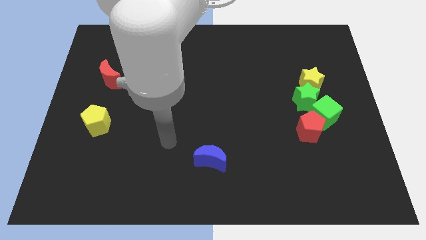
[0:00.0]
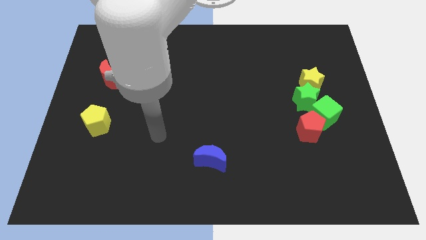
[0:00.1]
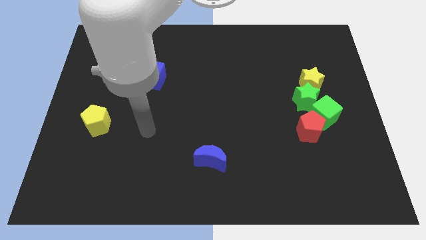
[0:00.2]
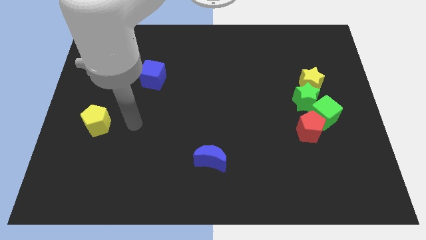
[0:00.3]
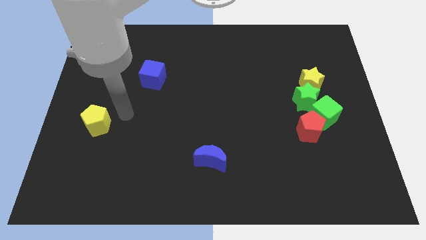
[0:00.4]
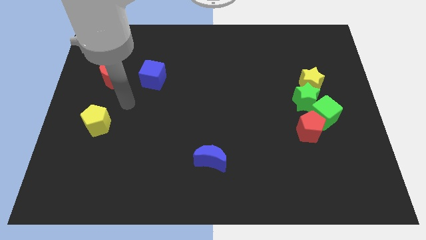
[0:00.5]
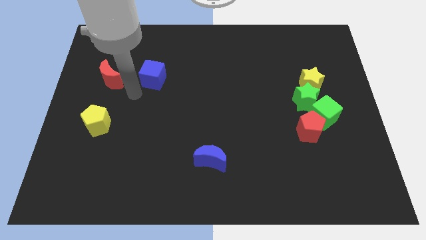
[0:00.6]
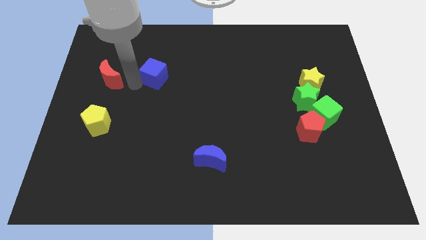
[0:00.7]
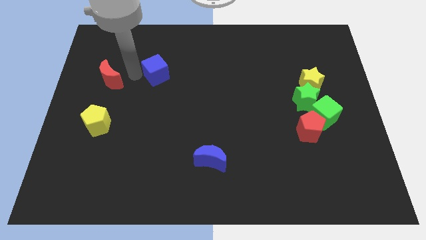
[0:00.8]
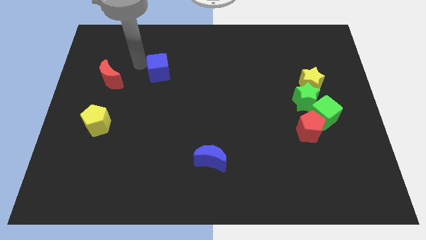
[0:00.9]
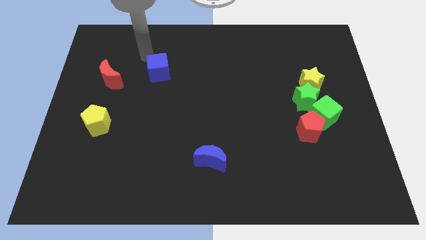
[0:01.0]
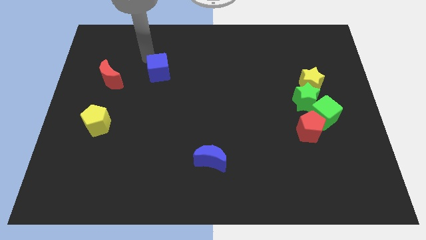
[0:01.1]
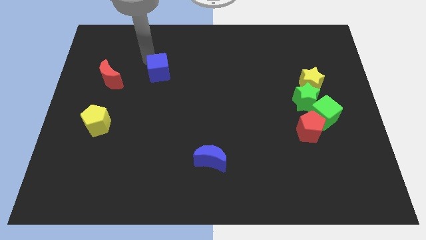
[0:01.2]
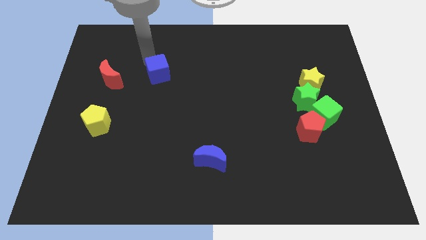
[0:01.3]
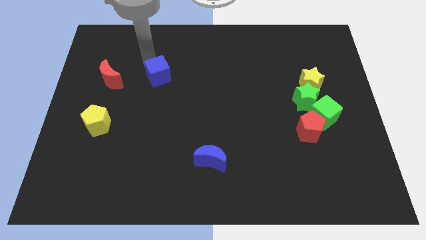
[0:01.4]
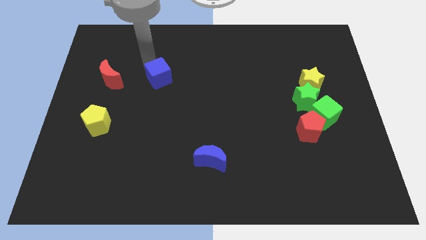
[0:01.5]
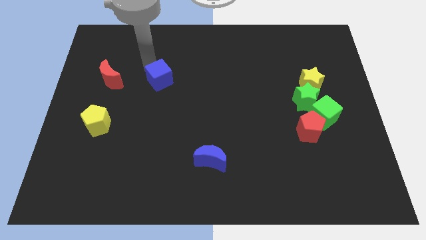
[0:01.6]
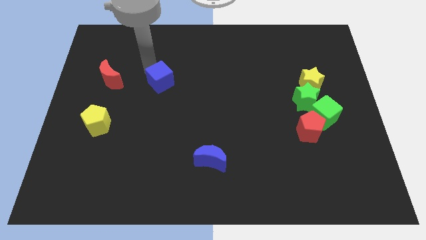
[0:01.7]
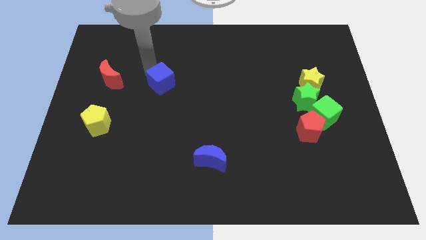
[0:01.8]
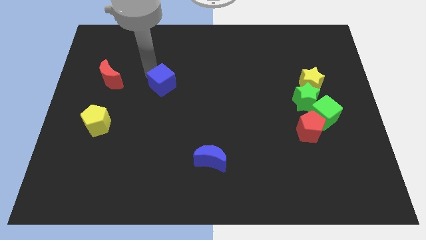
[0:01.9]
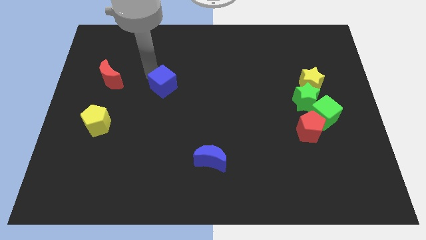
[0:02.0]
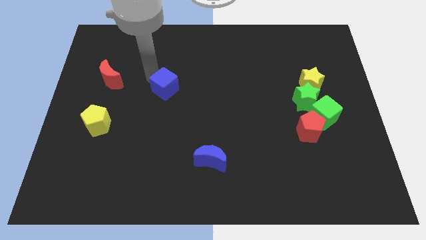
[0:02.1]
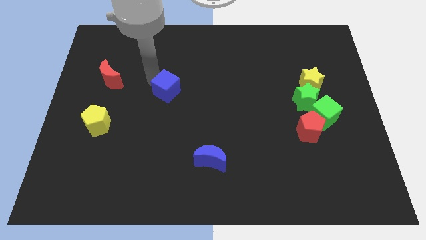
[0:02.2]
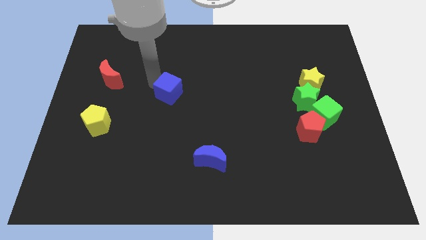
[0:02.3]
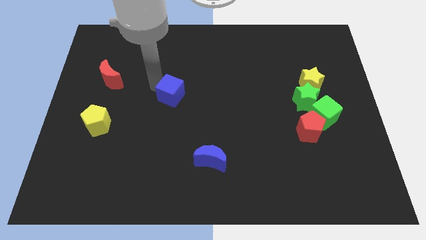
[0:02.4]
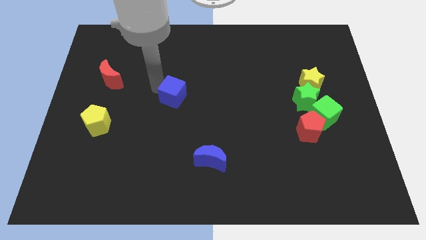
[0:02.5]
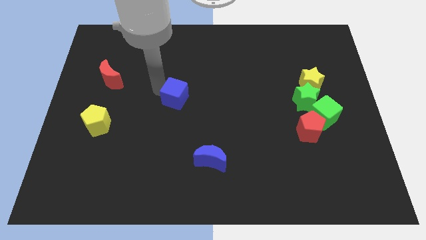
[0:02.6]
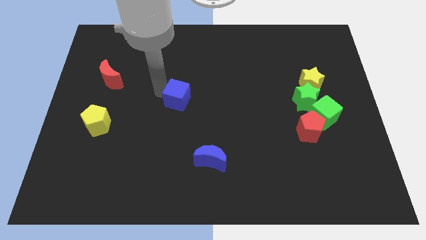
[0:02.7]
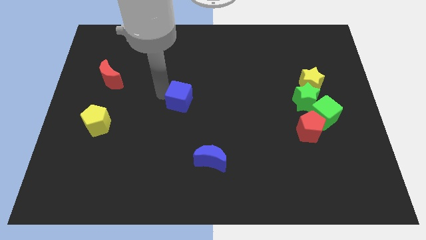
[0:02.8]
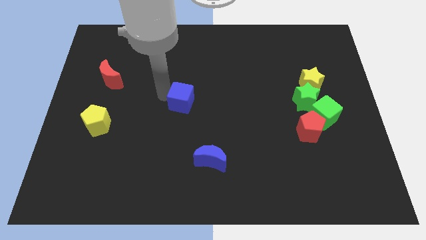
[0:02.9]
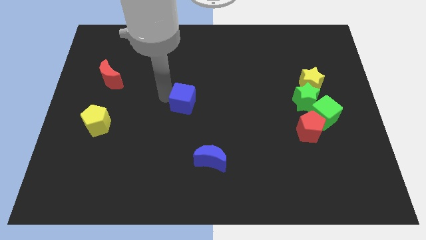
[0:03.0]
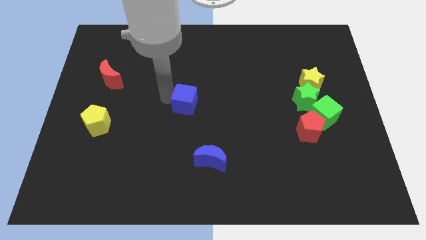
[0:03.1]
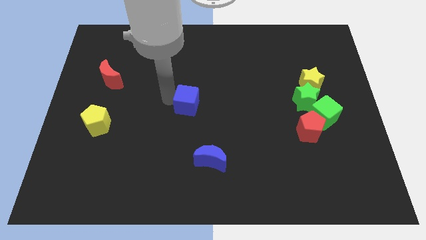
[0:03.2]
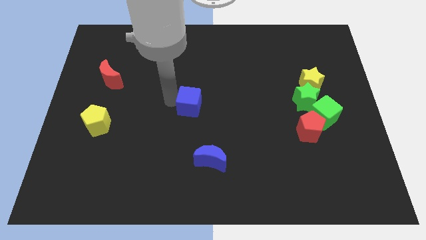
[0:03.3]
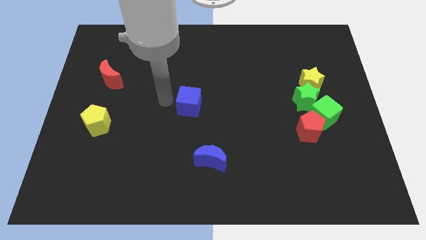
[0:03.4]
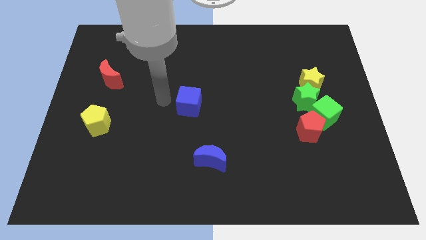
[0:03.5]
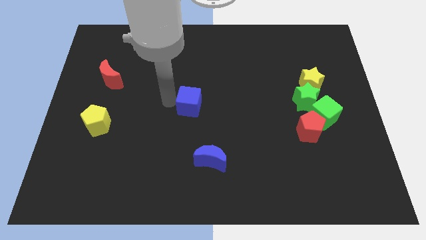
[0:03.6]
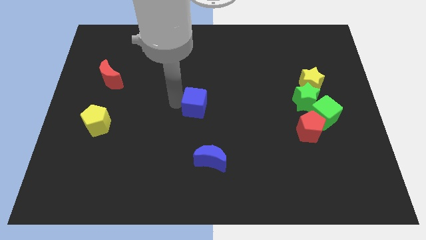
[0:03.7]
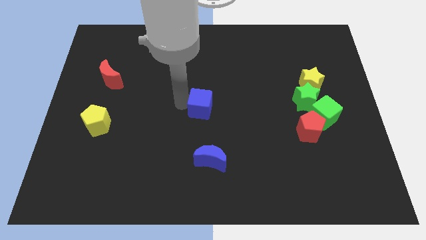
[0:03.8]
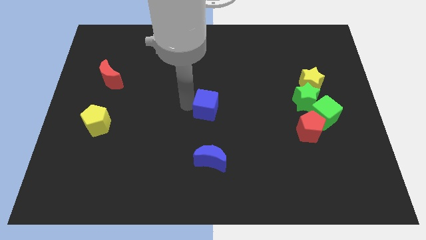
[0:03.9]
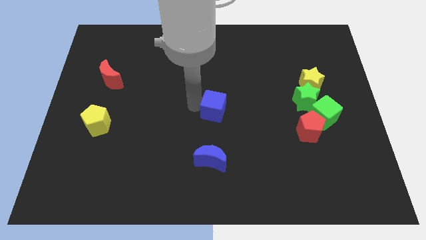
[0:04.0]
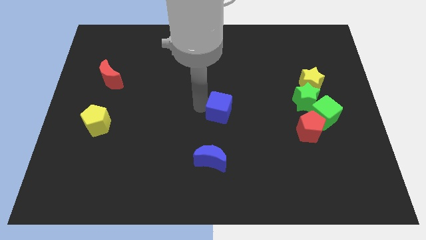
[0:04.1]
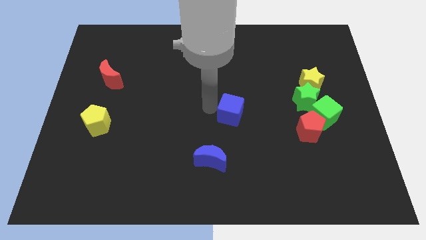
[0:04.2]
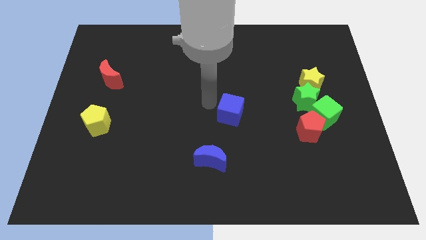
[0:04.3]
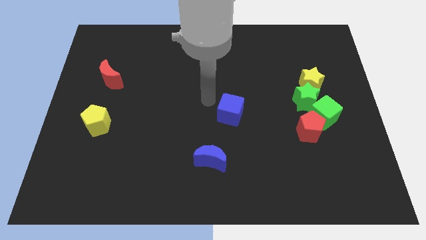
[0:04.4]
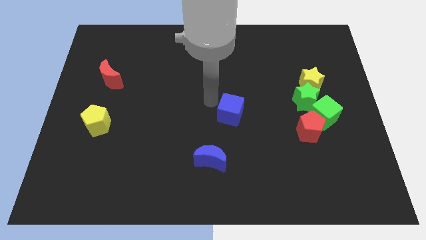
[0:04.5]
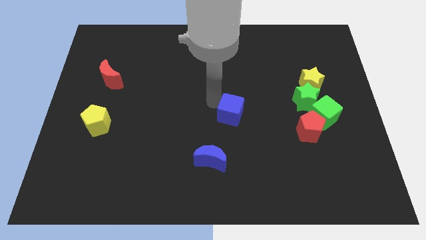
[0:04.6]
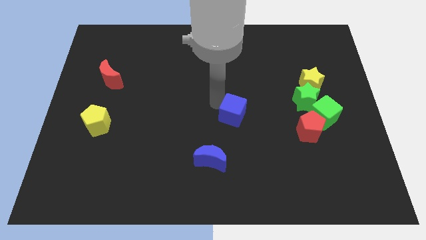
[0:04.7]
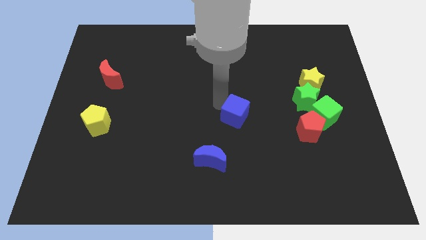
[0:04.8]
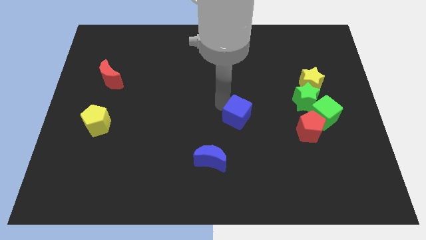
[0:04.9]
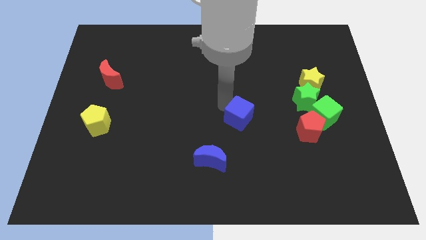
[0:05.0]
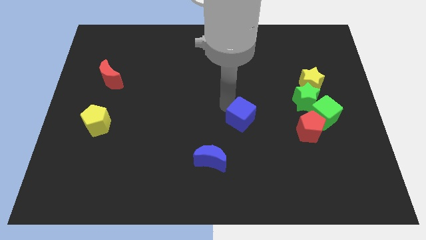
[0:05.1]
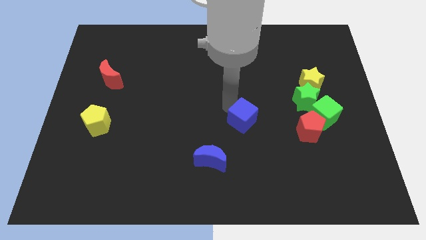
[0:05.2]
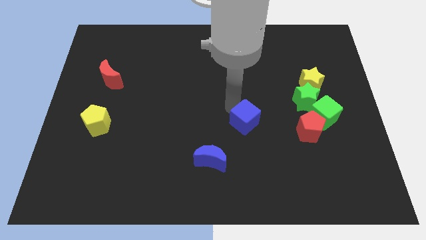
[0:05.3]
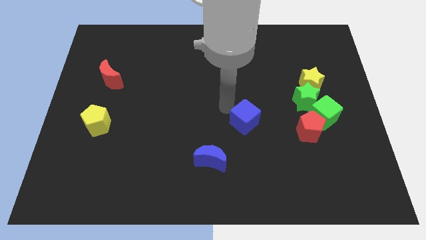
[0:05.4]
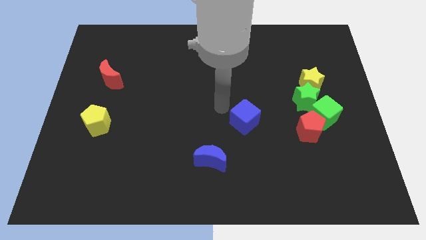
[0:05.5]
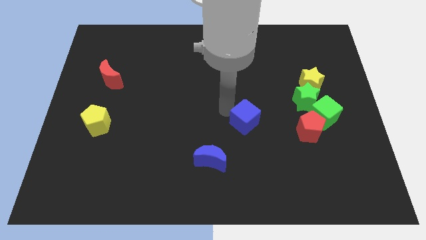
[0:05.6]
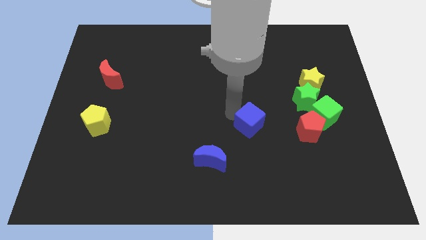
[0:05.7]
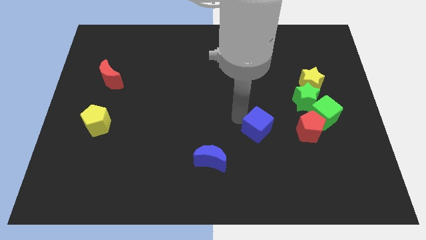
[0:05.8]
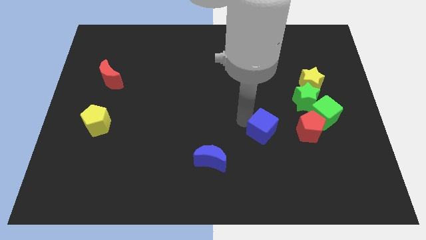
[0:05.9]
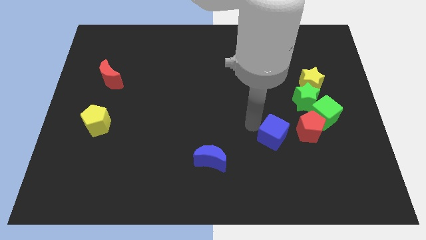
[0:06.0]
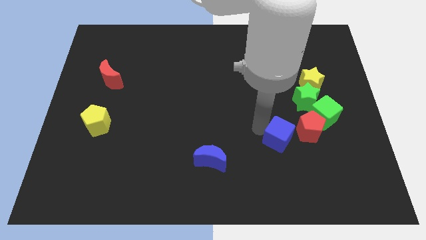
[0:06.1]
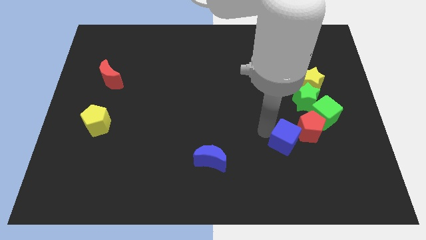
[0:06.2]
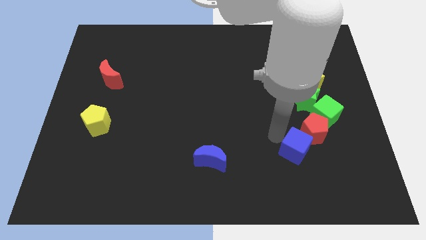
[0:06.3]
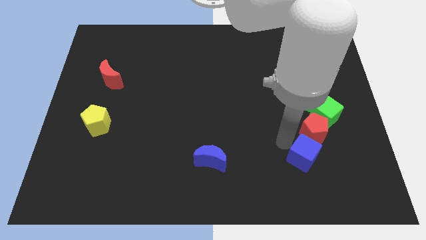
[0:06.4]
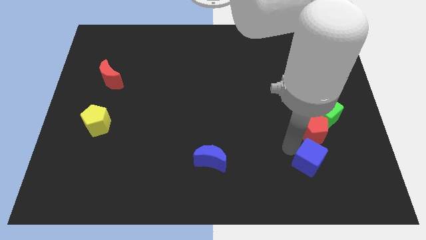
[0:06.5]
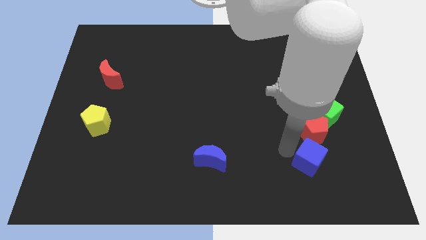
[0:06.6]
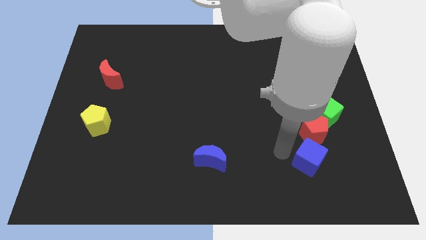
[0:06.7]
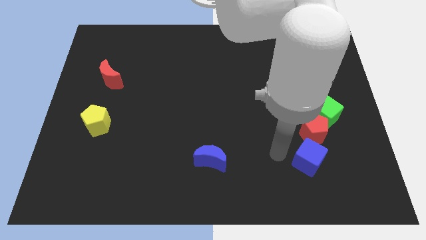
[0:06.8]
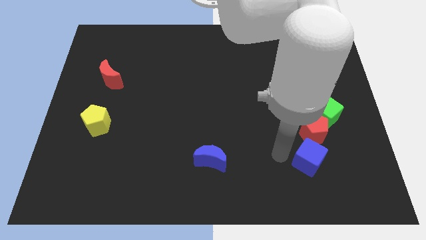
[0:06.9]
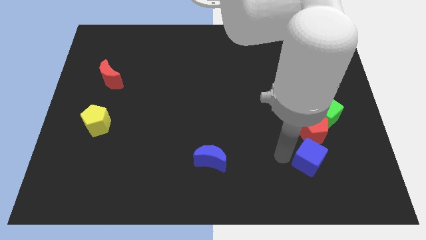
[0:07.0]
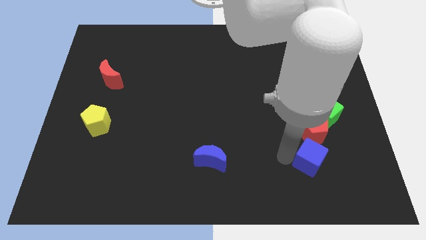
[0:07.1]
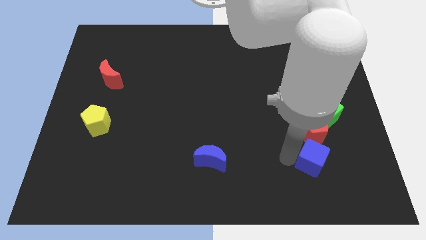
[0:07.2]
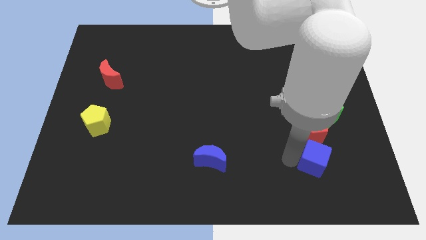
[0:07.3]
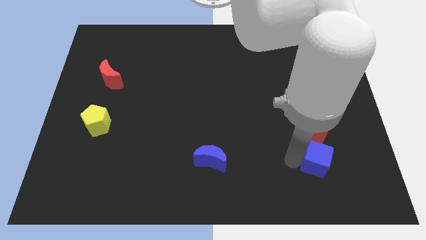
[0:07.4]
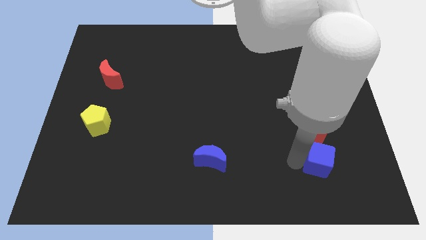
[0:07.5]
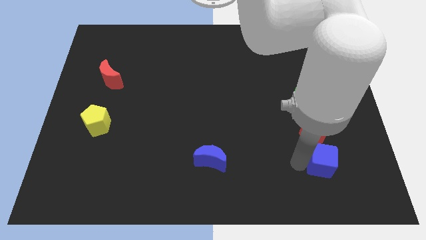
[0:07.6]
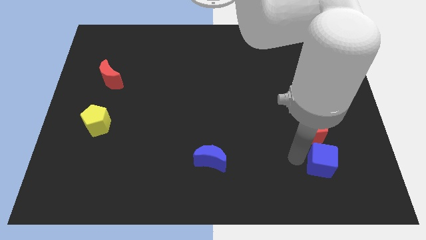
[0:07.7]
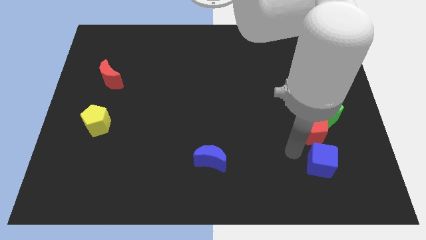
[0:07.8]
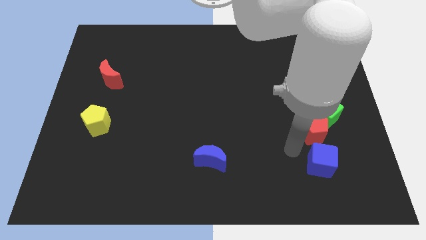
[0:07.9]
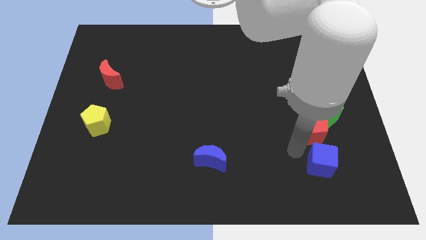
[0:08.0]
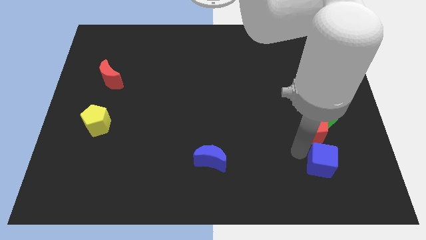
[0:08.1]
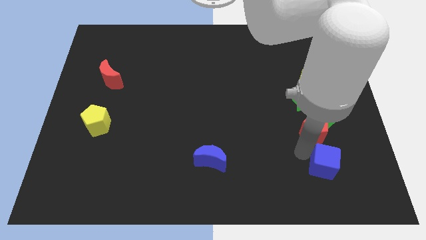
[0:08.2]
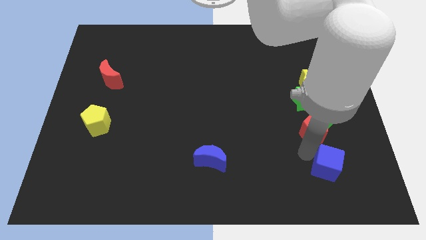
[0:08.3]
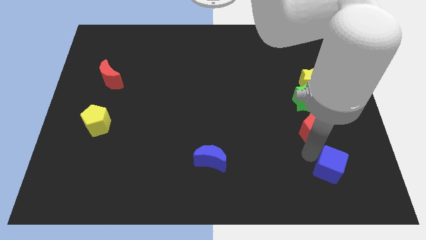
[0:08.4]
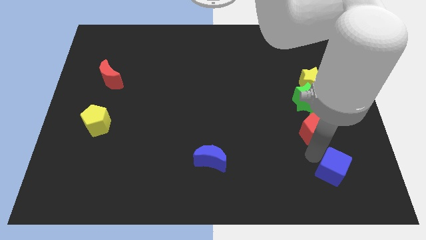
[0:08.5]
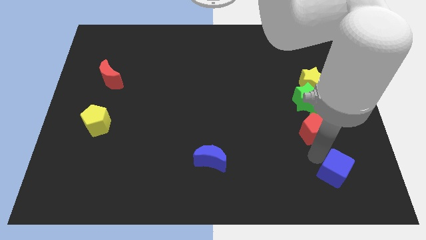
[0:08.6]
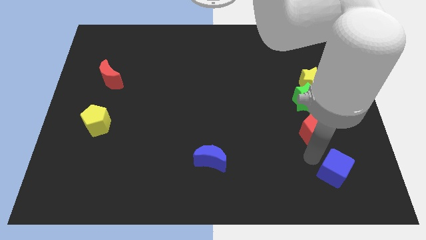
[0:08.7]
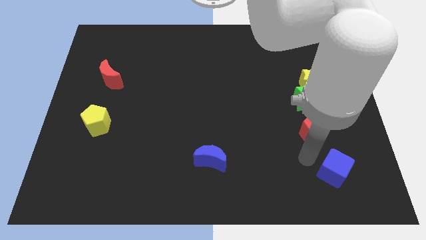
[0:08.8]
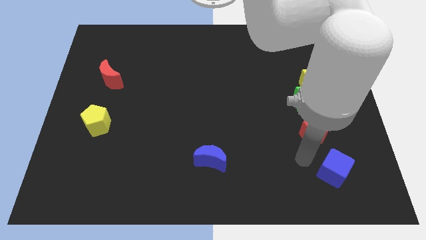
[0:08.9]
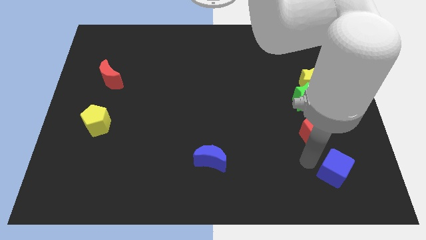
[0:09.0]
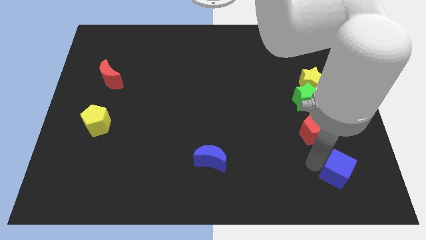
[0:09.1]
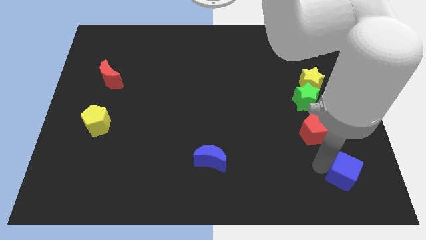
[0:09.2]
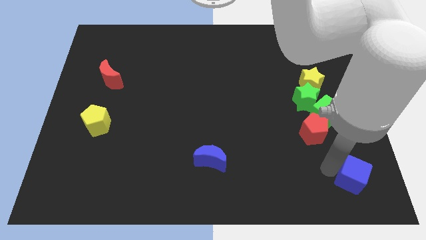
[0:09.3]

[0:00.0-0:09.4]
slide the blue cube to the lower right corner
